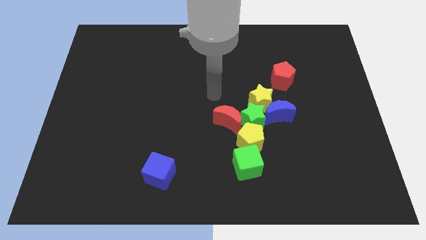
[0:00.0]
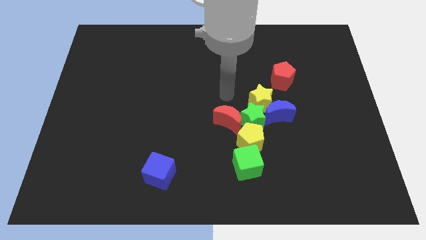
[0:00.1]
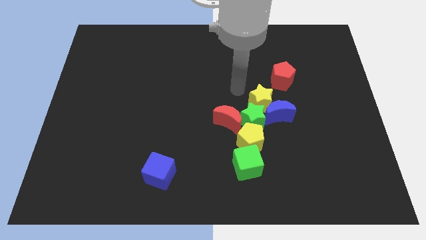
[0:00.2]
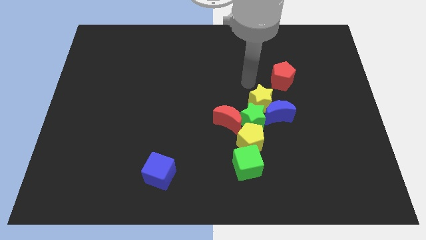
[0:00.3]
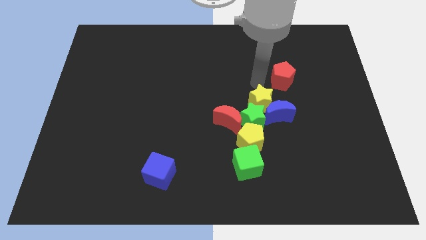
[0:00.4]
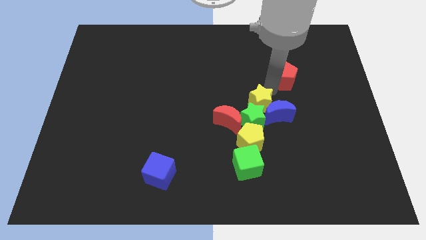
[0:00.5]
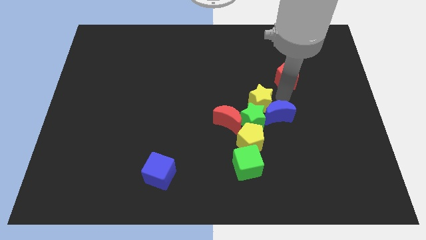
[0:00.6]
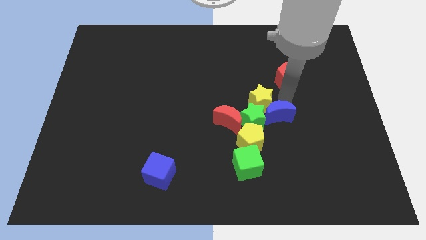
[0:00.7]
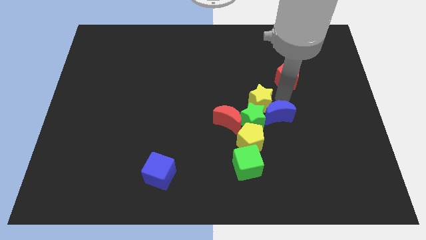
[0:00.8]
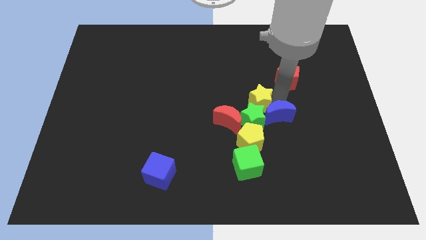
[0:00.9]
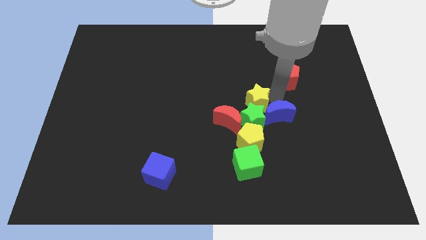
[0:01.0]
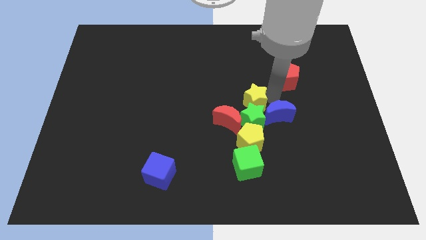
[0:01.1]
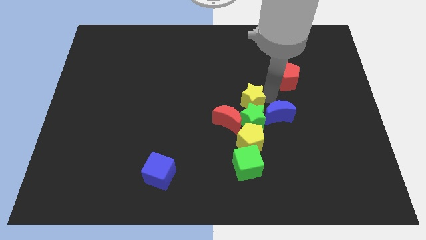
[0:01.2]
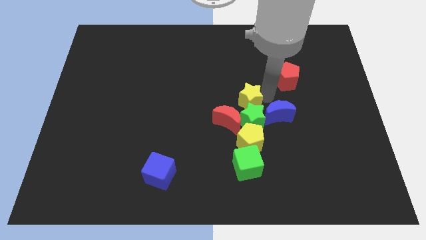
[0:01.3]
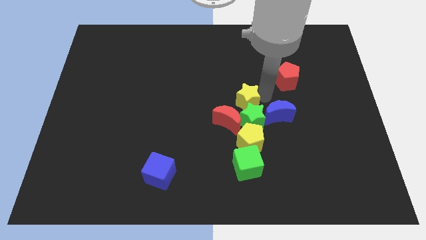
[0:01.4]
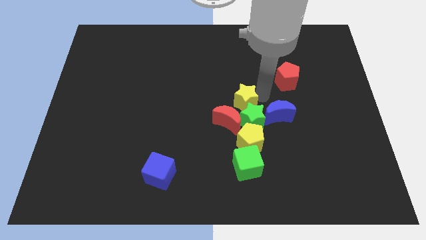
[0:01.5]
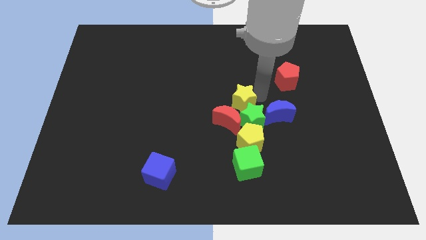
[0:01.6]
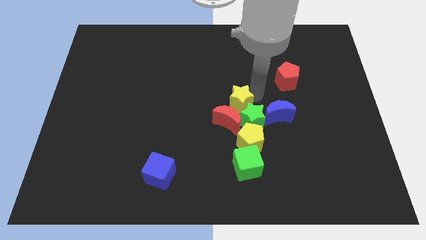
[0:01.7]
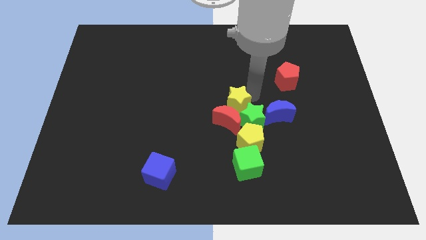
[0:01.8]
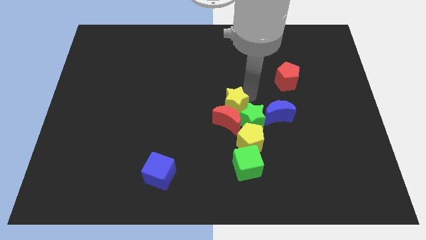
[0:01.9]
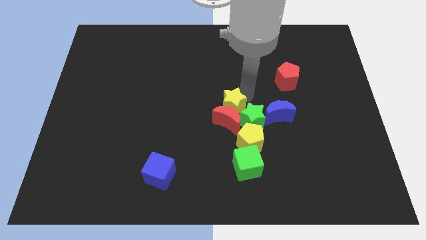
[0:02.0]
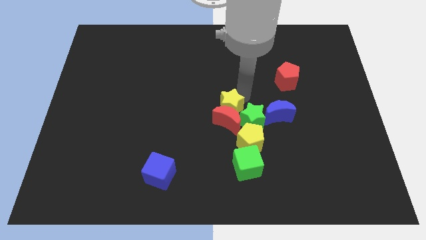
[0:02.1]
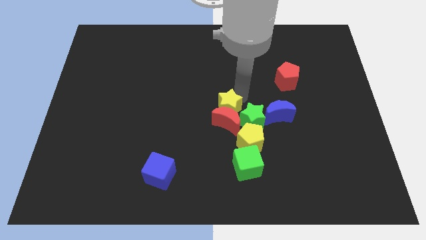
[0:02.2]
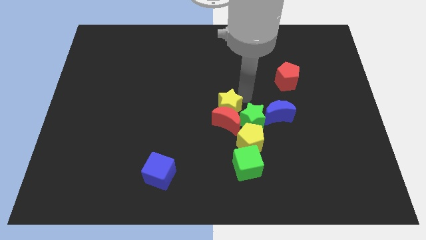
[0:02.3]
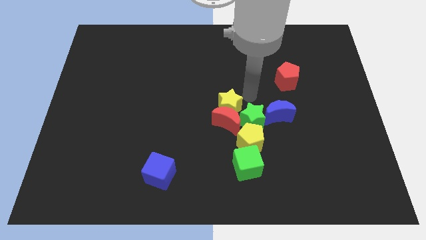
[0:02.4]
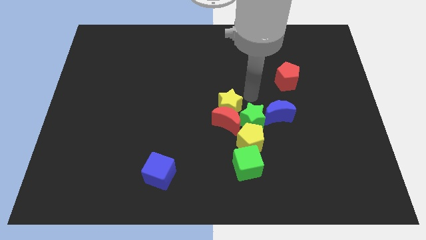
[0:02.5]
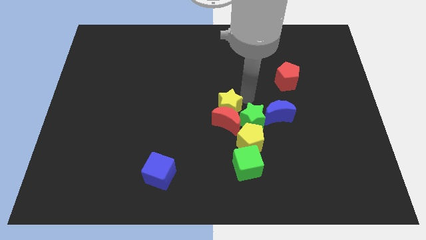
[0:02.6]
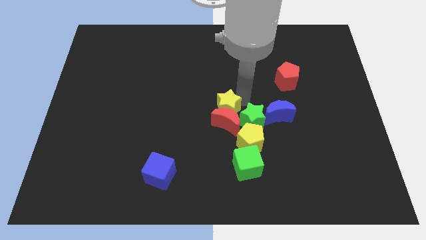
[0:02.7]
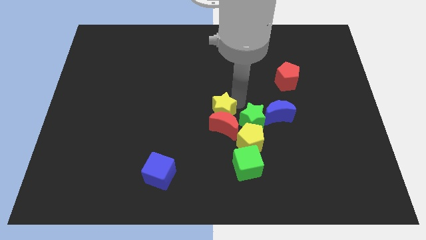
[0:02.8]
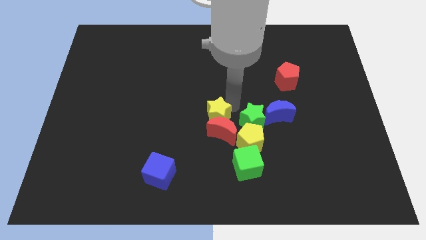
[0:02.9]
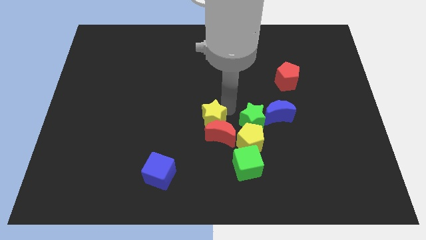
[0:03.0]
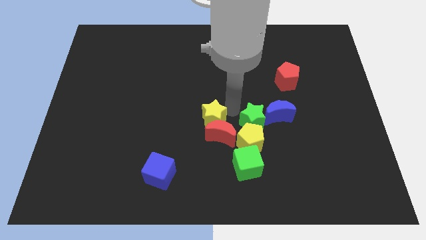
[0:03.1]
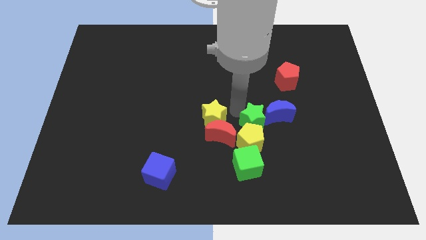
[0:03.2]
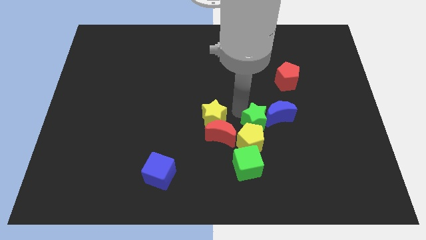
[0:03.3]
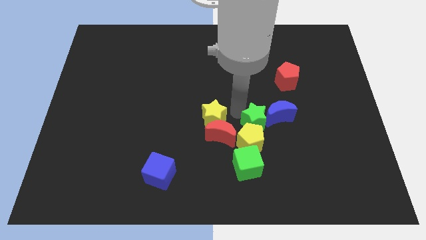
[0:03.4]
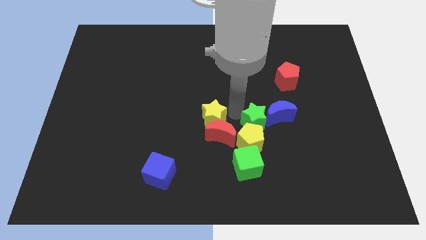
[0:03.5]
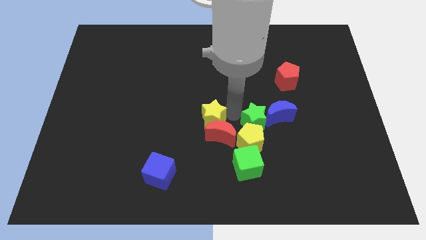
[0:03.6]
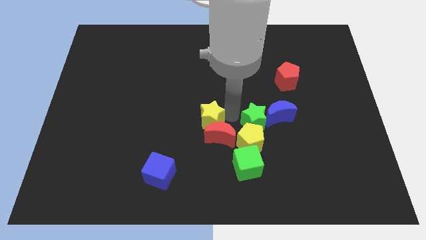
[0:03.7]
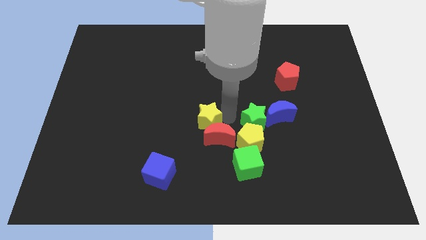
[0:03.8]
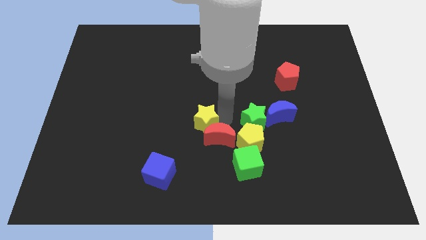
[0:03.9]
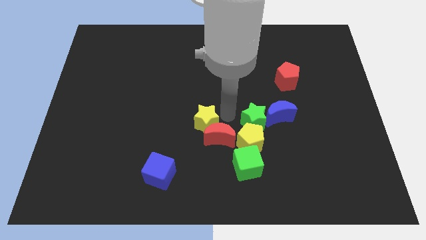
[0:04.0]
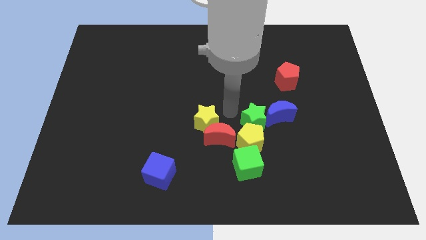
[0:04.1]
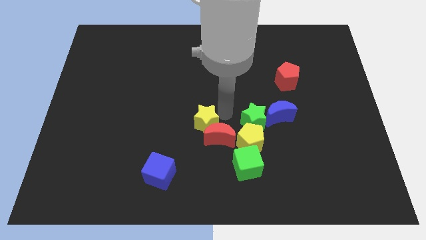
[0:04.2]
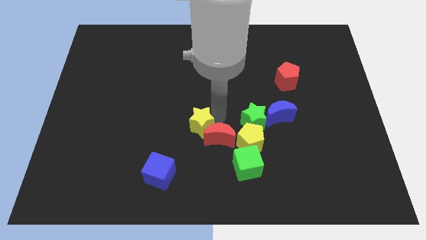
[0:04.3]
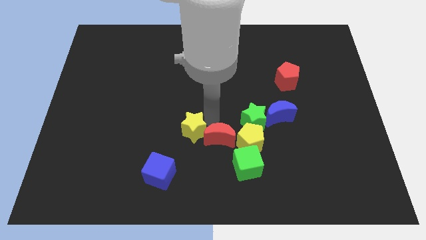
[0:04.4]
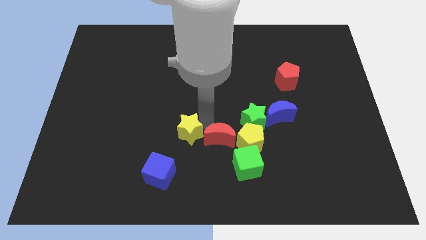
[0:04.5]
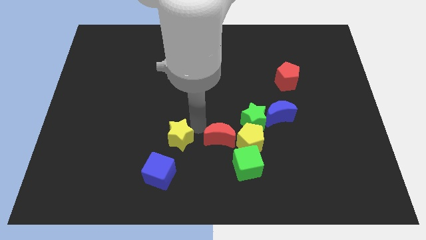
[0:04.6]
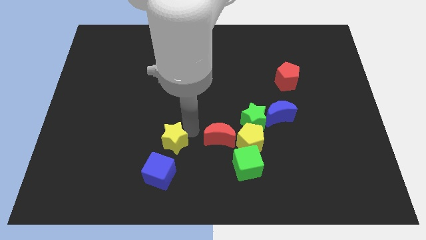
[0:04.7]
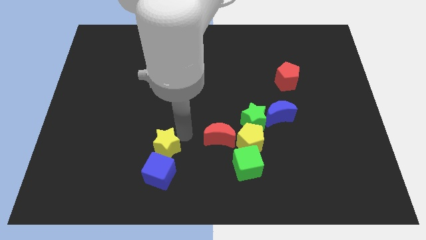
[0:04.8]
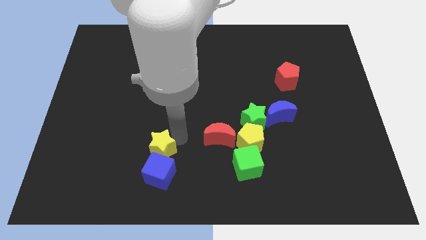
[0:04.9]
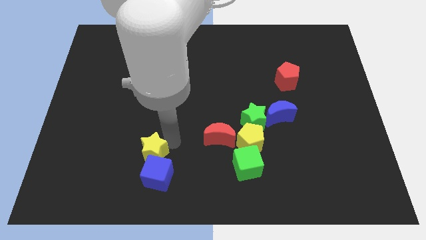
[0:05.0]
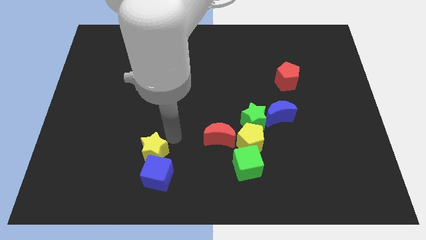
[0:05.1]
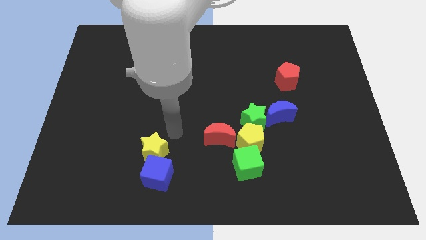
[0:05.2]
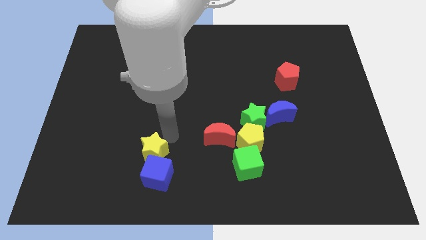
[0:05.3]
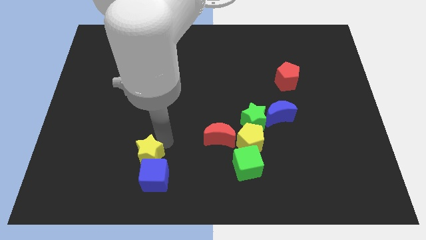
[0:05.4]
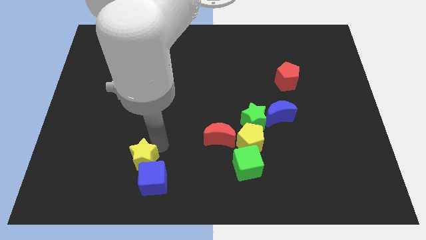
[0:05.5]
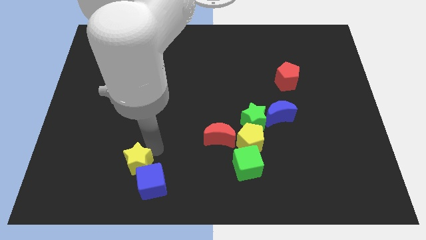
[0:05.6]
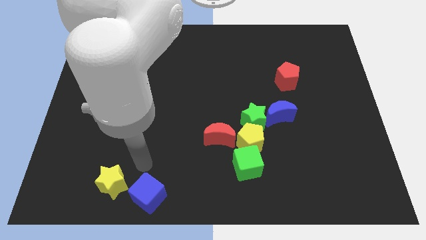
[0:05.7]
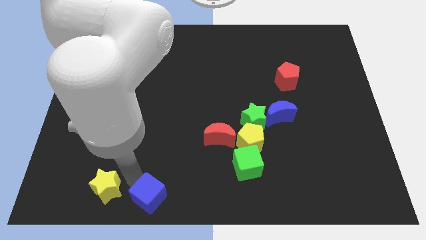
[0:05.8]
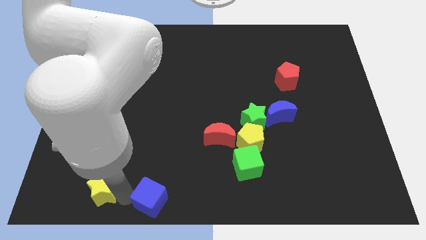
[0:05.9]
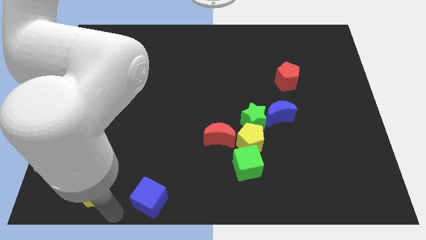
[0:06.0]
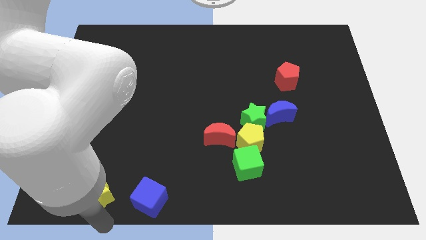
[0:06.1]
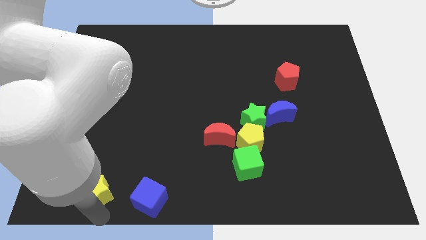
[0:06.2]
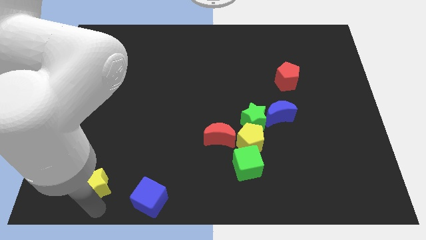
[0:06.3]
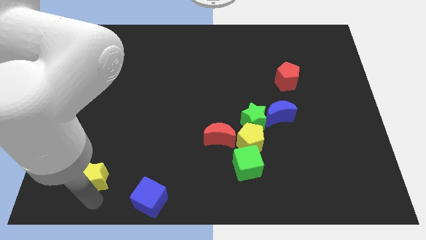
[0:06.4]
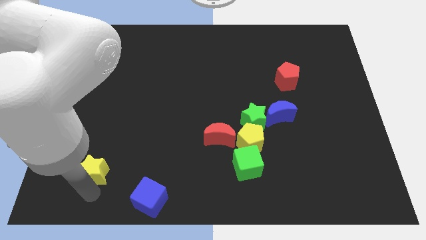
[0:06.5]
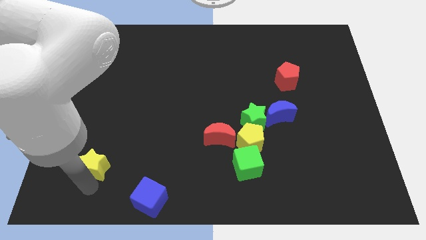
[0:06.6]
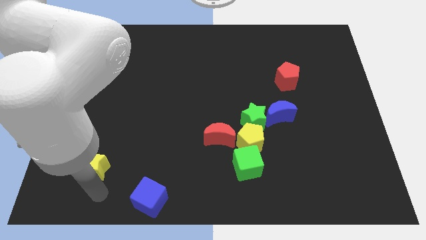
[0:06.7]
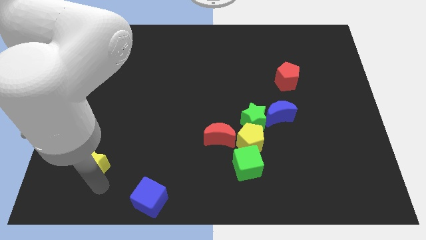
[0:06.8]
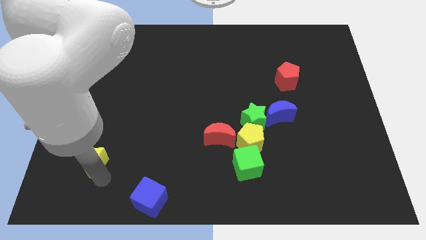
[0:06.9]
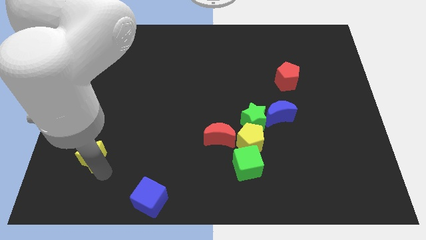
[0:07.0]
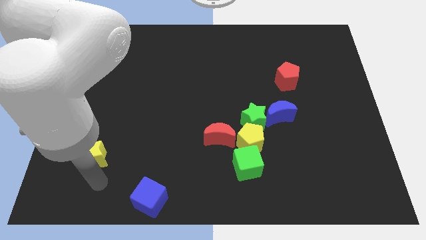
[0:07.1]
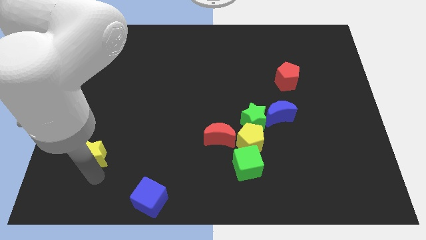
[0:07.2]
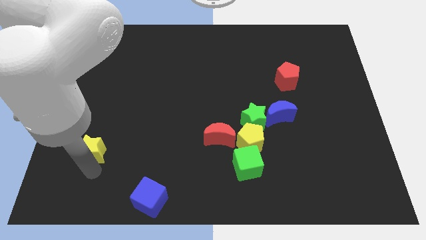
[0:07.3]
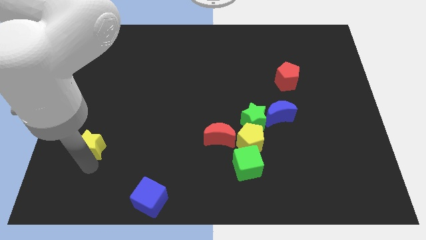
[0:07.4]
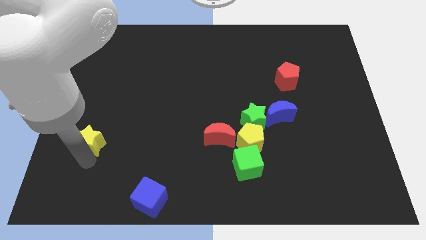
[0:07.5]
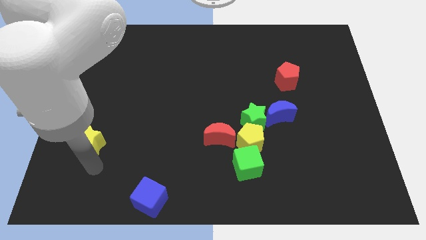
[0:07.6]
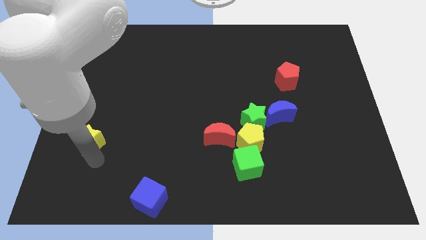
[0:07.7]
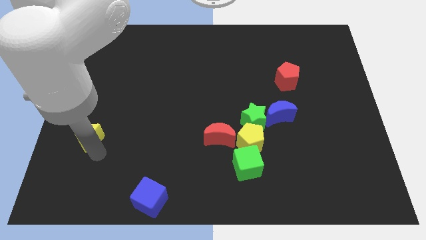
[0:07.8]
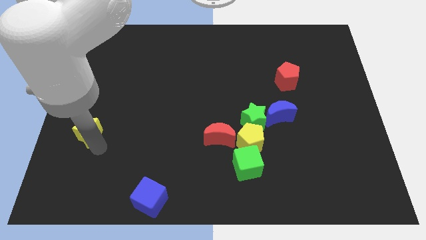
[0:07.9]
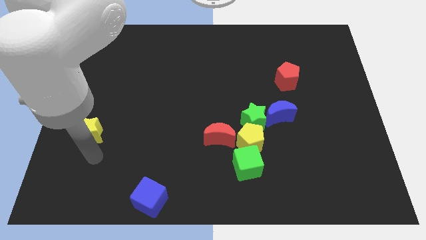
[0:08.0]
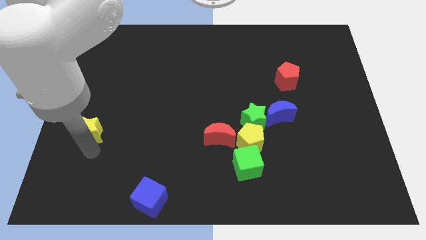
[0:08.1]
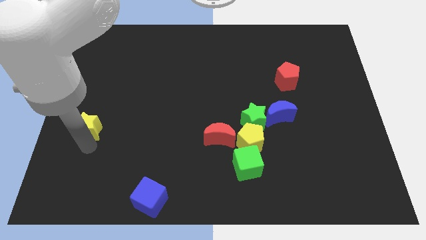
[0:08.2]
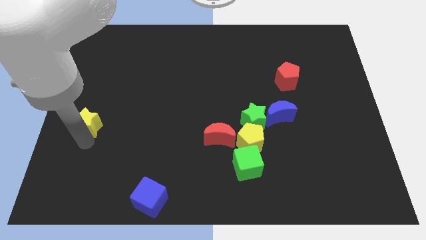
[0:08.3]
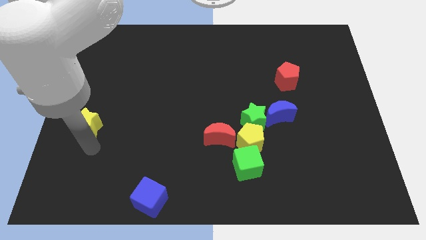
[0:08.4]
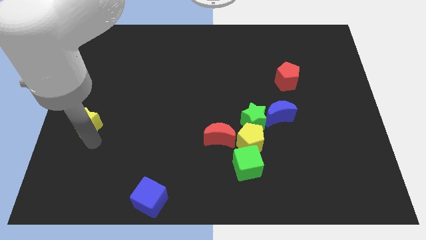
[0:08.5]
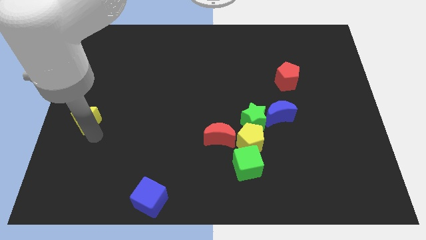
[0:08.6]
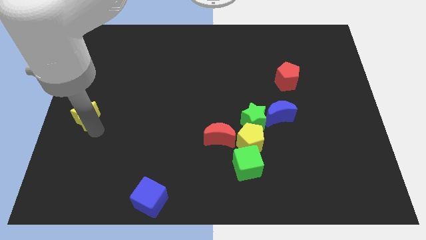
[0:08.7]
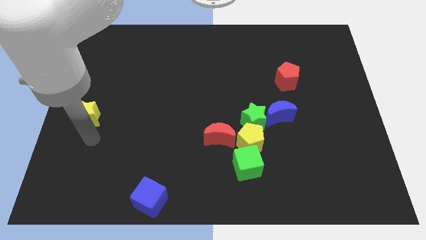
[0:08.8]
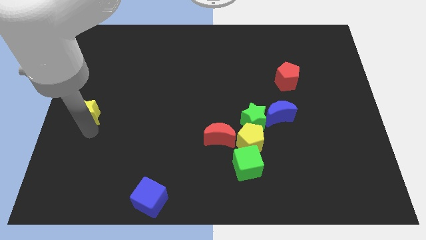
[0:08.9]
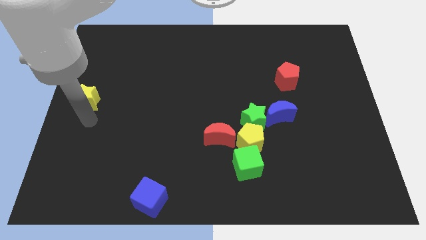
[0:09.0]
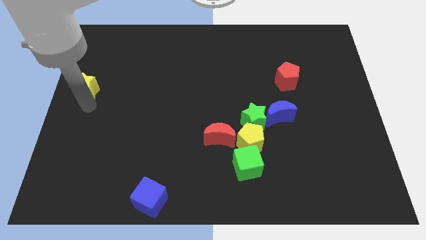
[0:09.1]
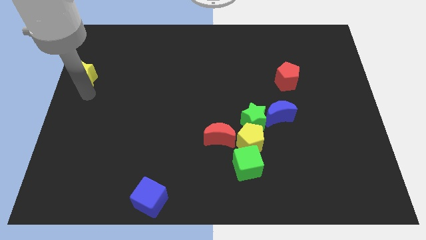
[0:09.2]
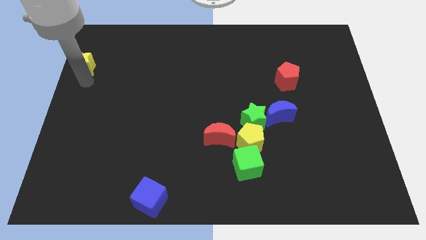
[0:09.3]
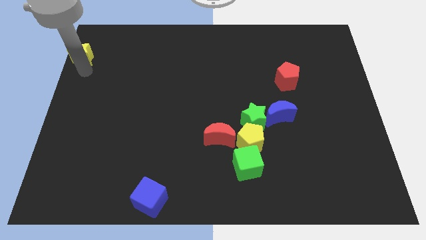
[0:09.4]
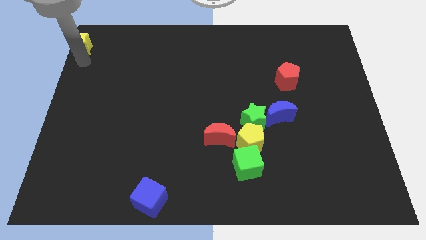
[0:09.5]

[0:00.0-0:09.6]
push the yellow star to the top left of the board
